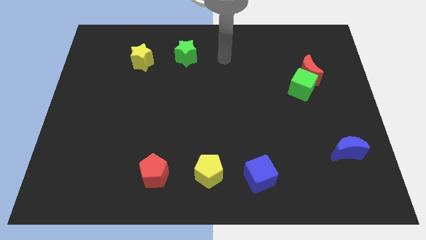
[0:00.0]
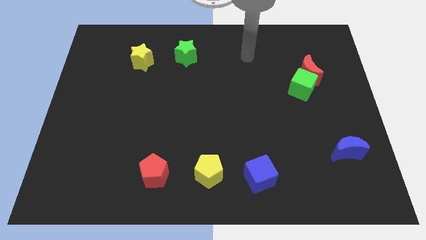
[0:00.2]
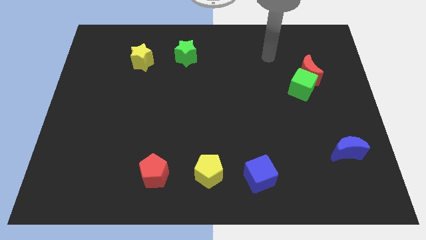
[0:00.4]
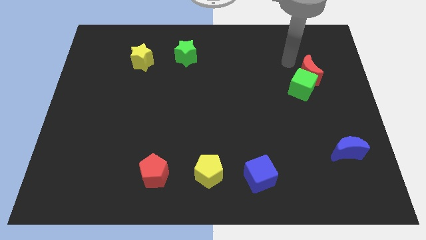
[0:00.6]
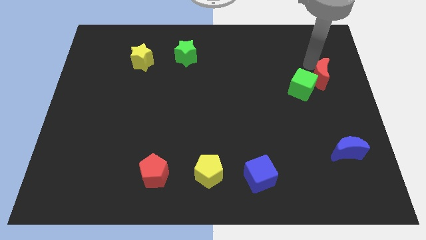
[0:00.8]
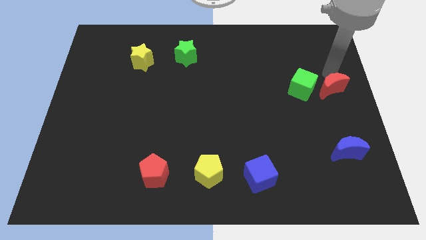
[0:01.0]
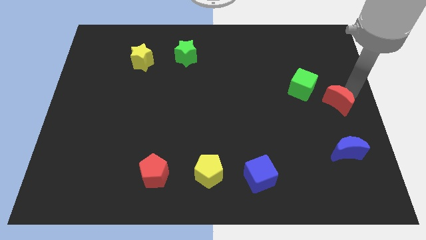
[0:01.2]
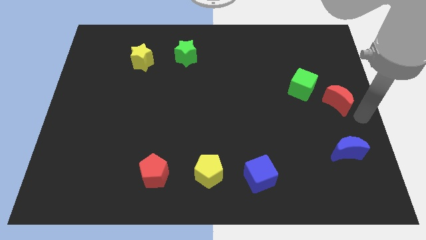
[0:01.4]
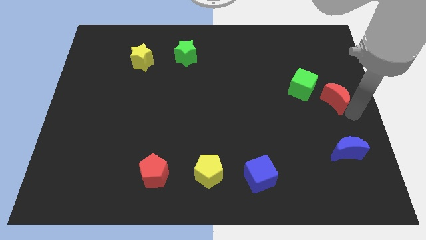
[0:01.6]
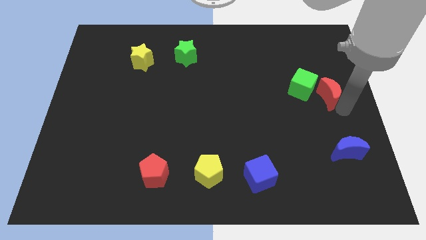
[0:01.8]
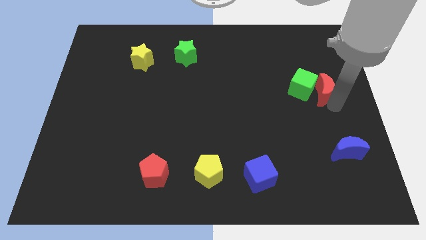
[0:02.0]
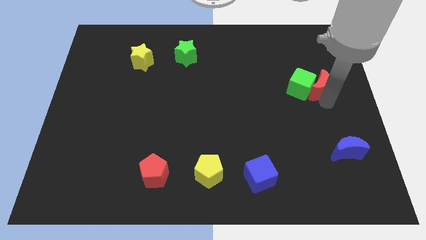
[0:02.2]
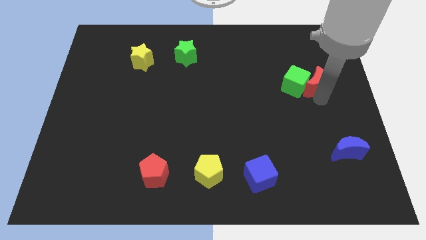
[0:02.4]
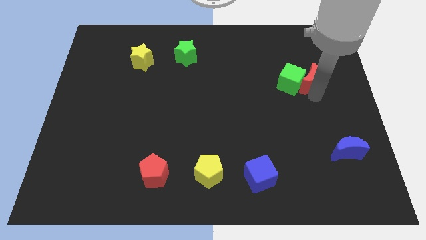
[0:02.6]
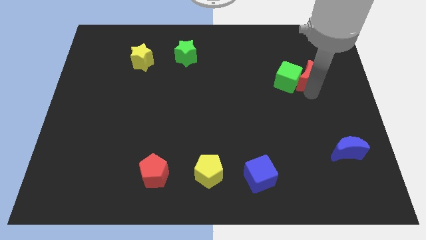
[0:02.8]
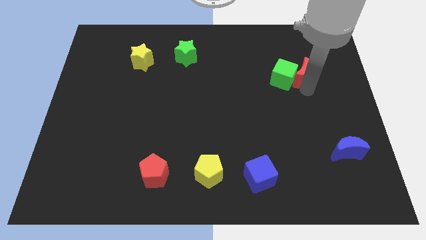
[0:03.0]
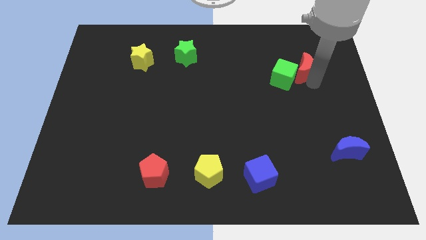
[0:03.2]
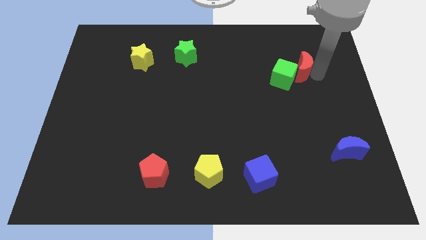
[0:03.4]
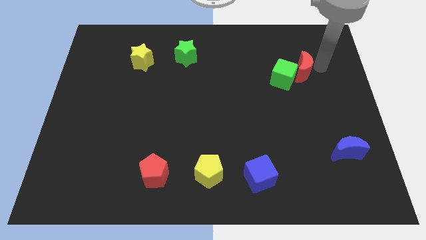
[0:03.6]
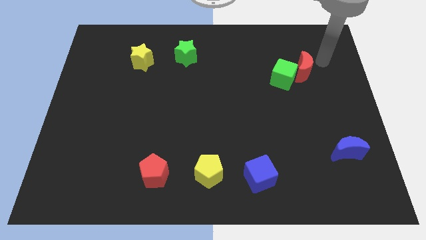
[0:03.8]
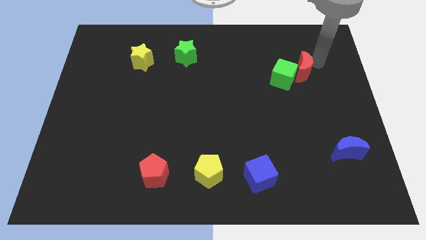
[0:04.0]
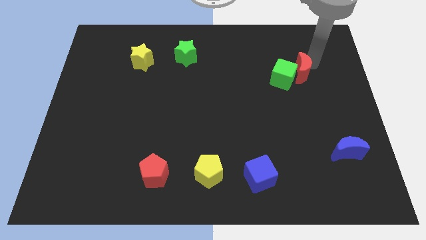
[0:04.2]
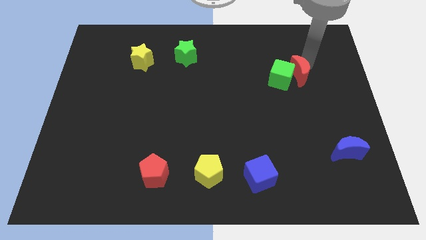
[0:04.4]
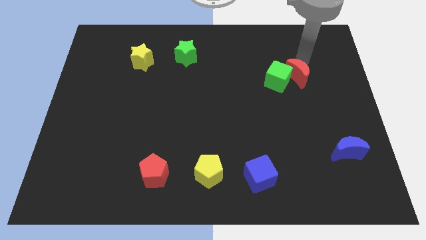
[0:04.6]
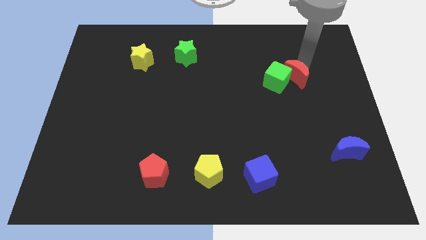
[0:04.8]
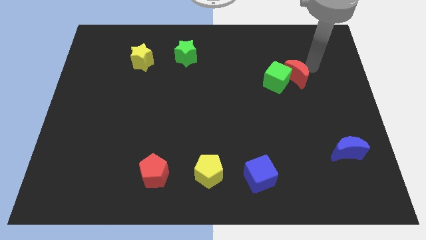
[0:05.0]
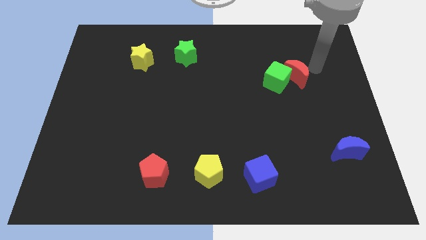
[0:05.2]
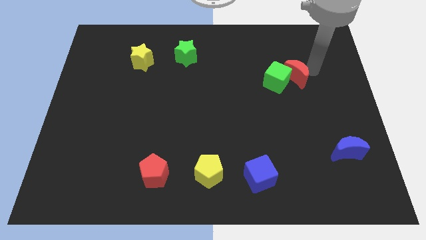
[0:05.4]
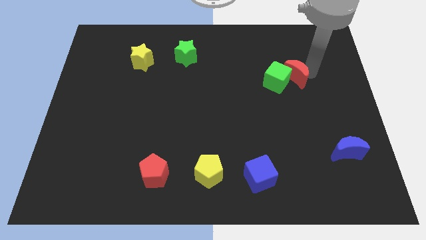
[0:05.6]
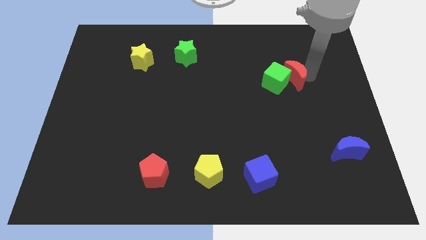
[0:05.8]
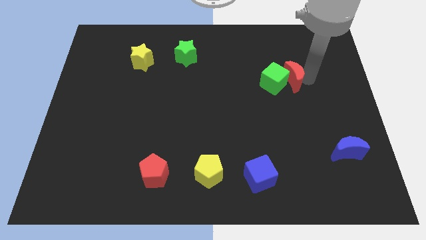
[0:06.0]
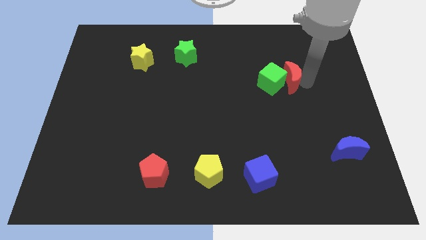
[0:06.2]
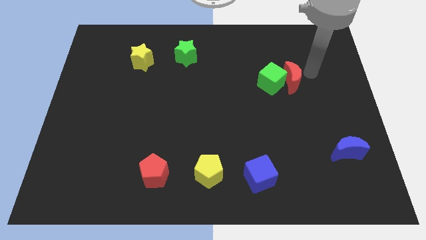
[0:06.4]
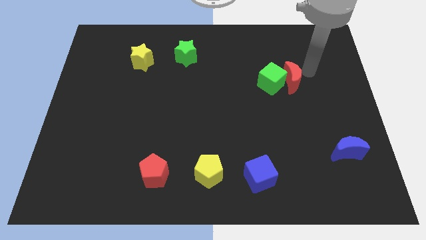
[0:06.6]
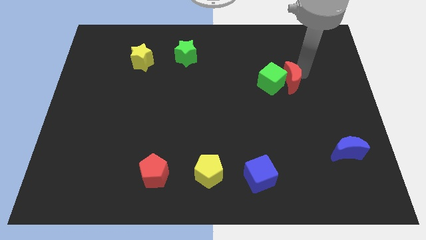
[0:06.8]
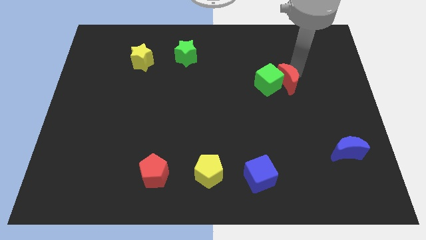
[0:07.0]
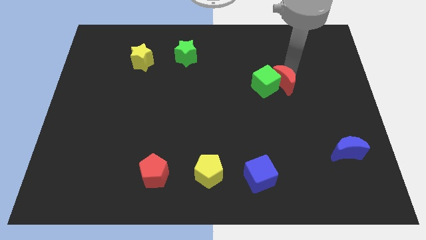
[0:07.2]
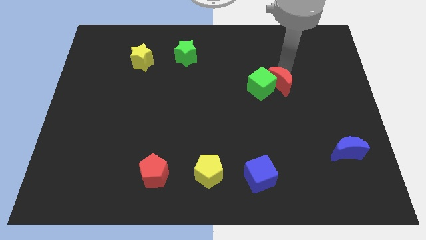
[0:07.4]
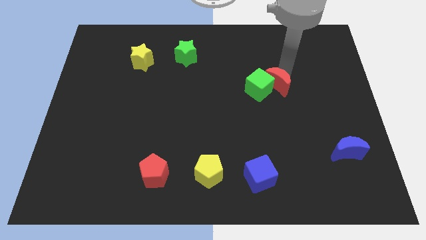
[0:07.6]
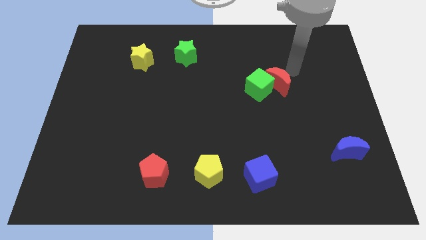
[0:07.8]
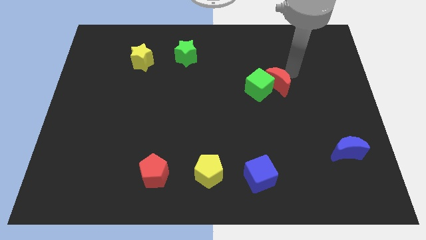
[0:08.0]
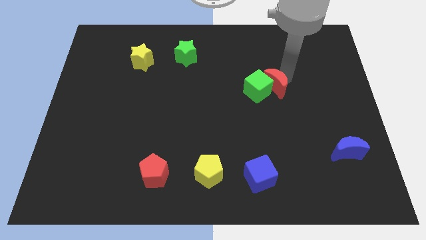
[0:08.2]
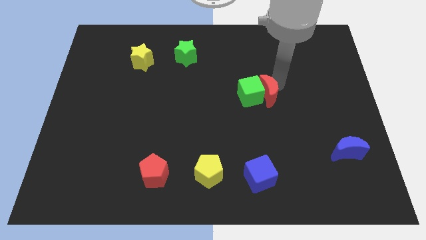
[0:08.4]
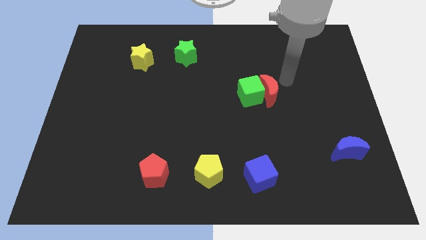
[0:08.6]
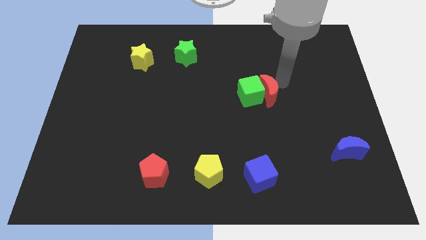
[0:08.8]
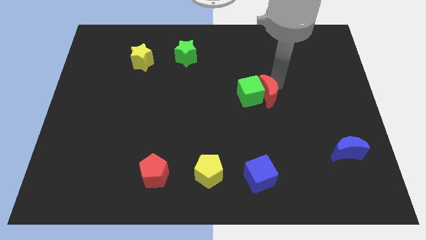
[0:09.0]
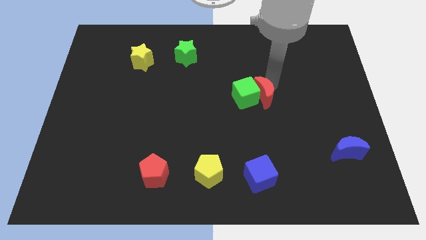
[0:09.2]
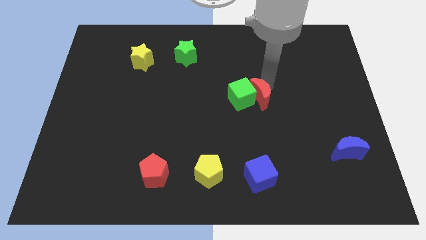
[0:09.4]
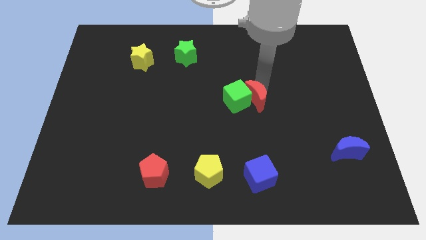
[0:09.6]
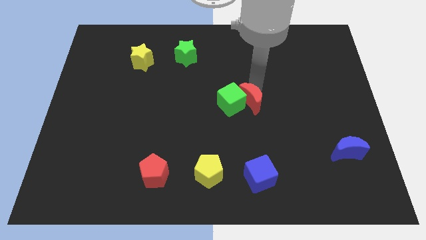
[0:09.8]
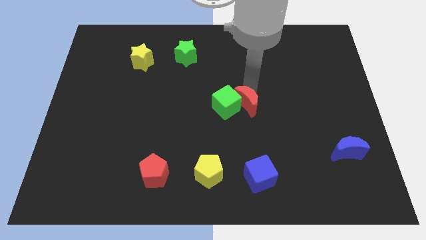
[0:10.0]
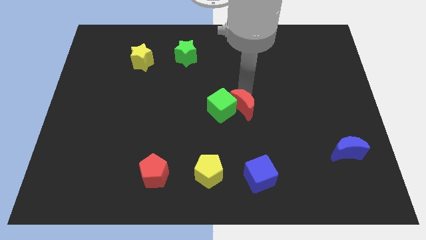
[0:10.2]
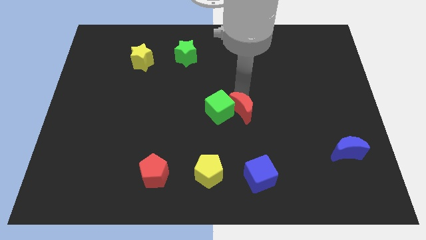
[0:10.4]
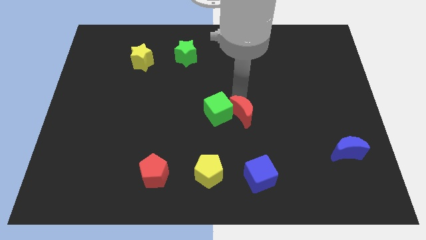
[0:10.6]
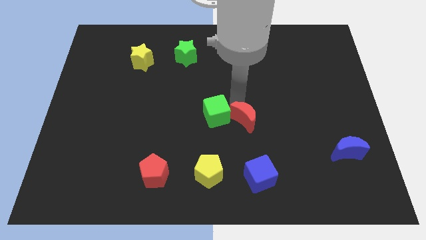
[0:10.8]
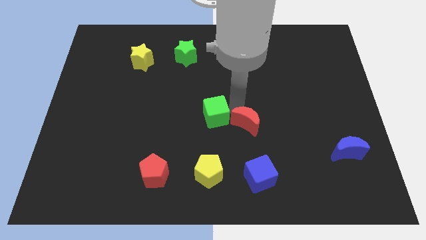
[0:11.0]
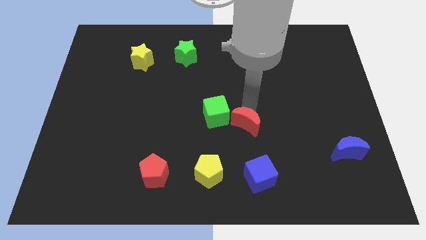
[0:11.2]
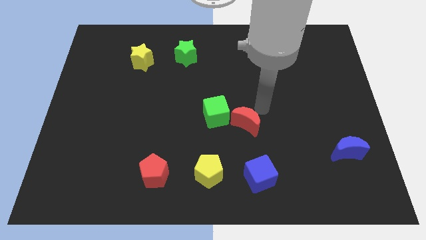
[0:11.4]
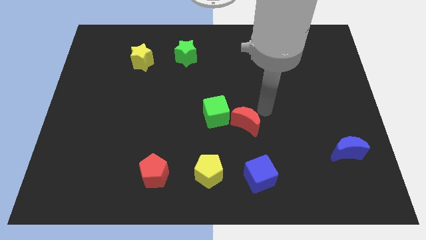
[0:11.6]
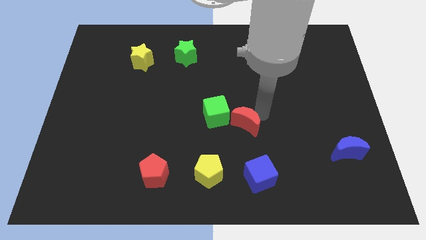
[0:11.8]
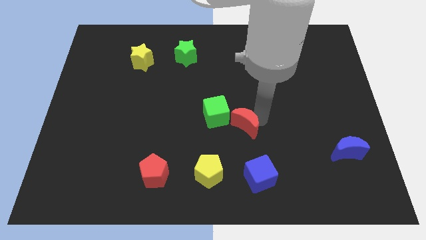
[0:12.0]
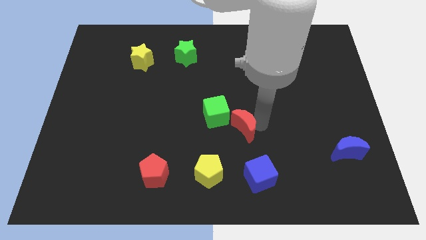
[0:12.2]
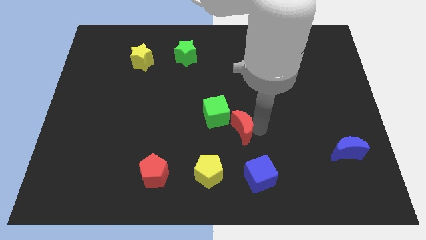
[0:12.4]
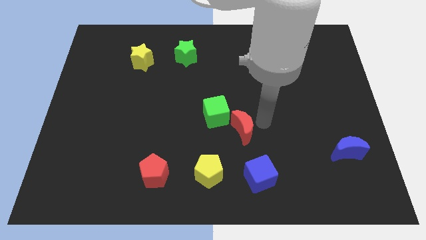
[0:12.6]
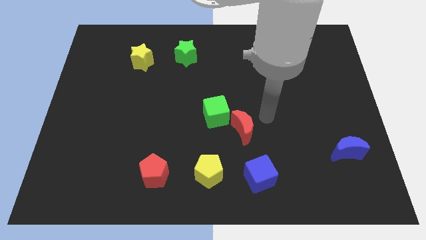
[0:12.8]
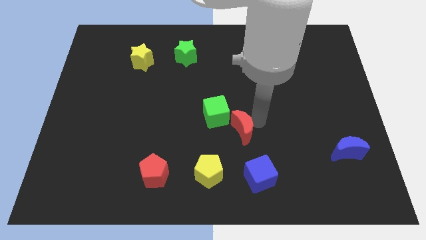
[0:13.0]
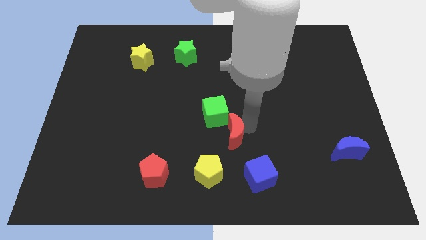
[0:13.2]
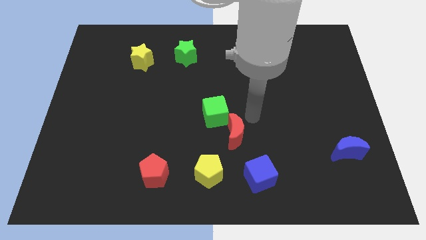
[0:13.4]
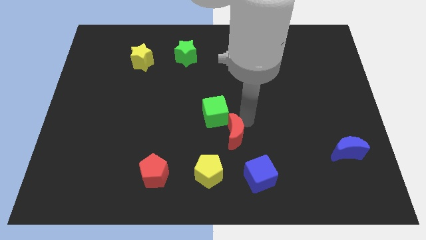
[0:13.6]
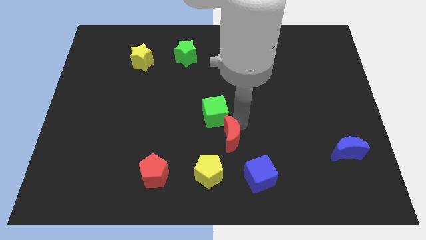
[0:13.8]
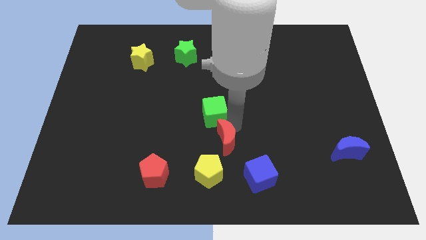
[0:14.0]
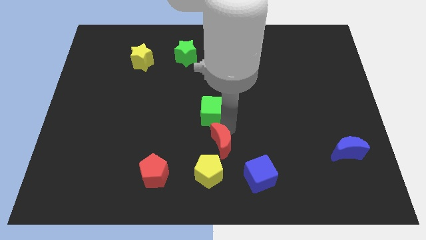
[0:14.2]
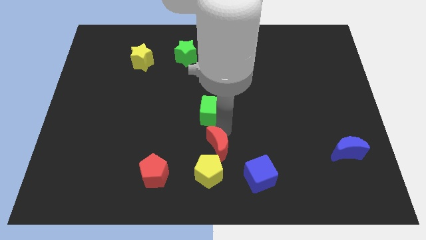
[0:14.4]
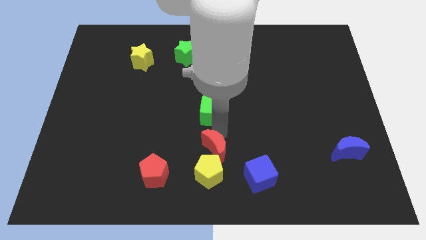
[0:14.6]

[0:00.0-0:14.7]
move the red moon to the yellow pentagon

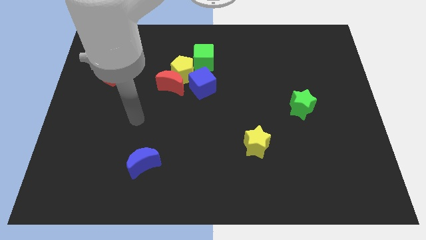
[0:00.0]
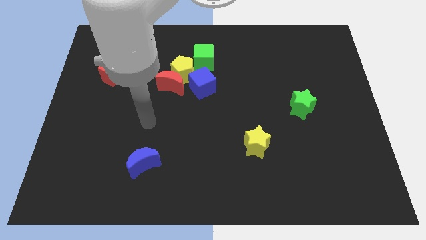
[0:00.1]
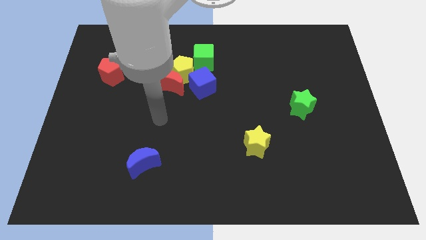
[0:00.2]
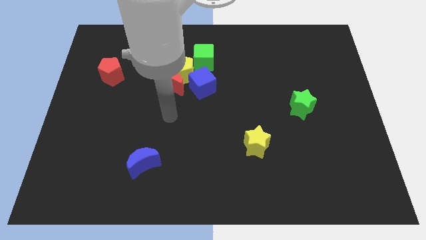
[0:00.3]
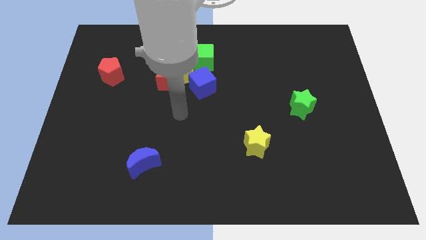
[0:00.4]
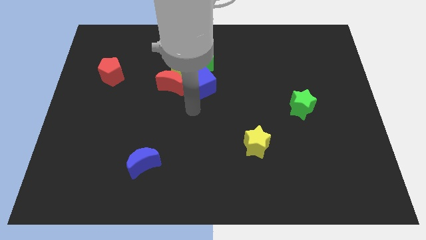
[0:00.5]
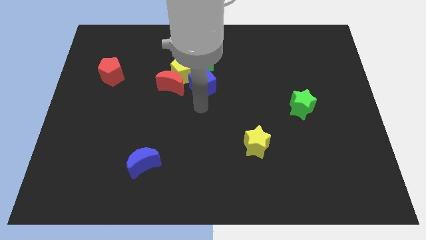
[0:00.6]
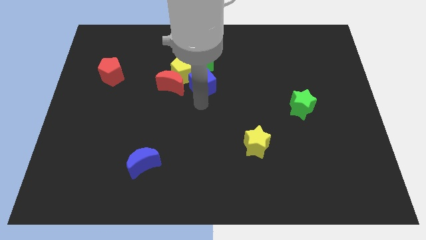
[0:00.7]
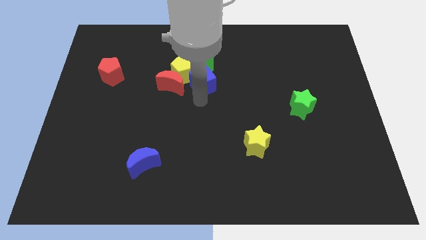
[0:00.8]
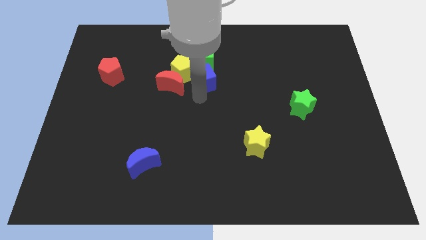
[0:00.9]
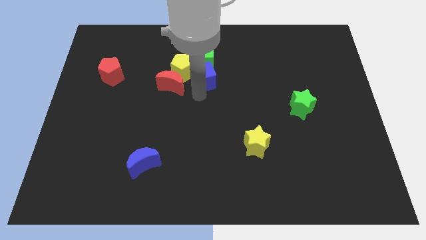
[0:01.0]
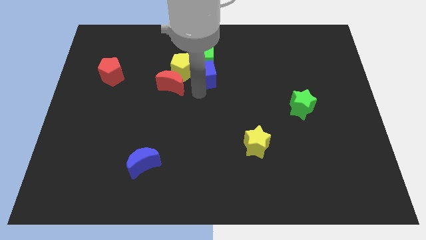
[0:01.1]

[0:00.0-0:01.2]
slide the blue cube close to the green cube
